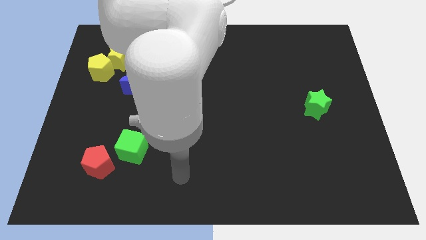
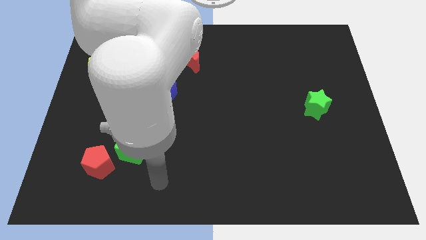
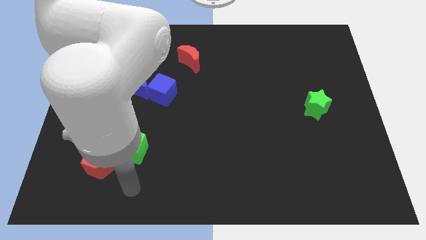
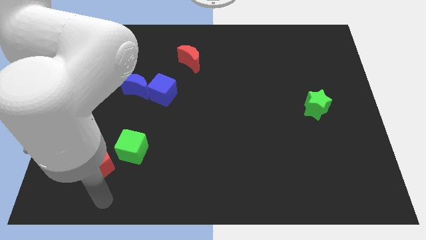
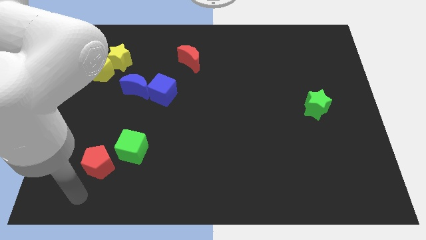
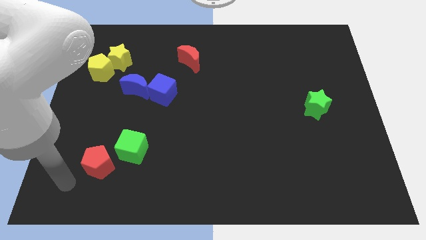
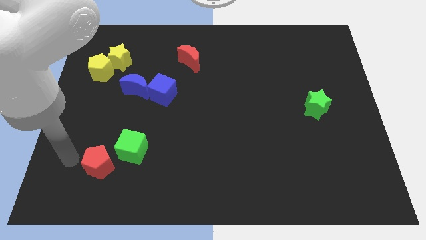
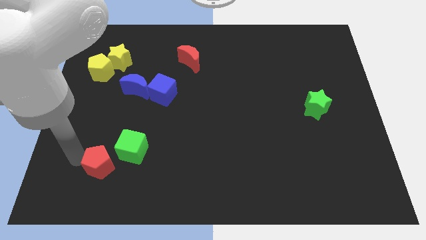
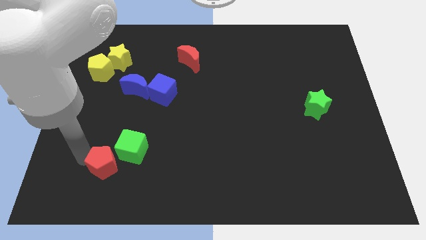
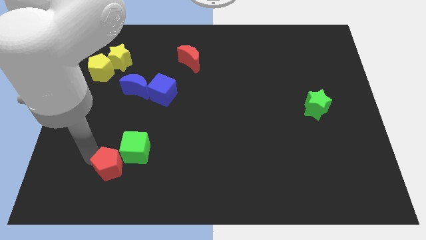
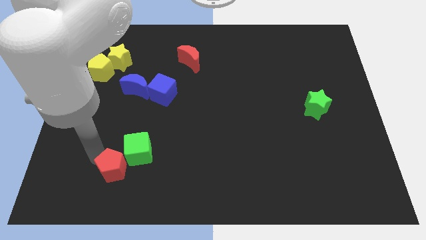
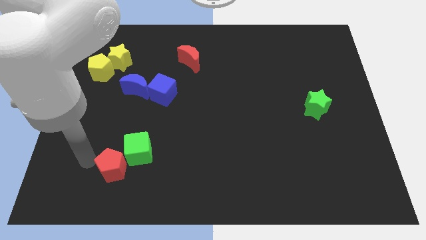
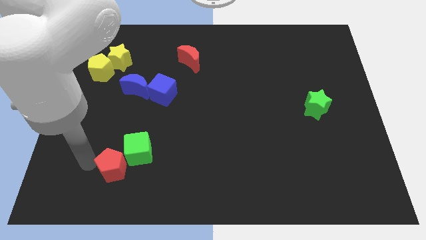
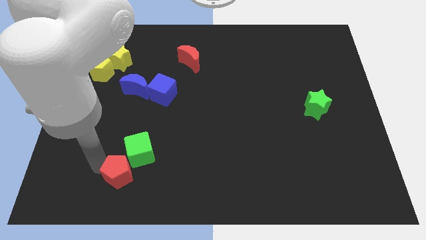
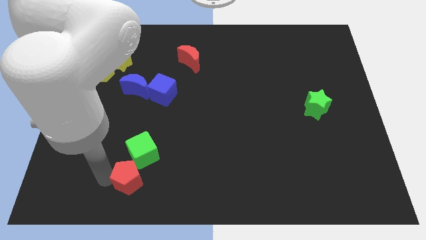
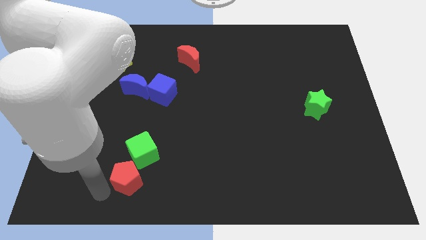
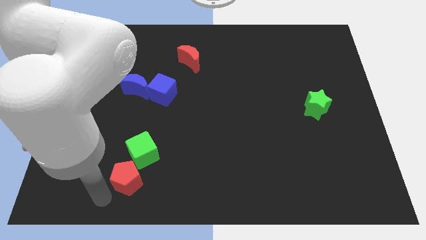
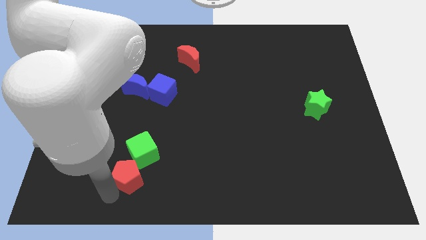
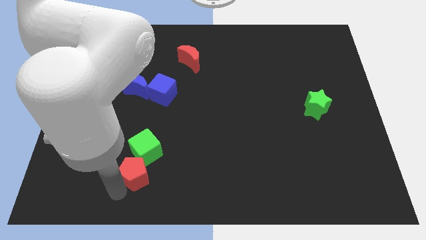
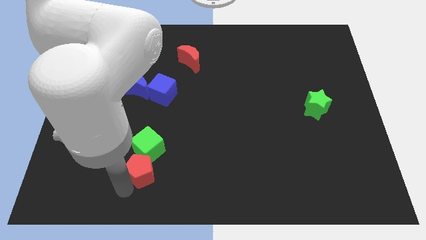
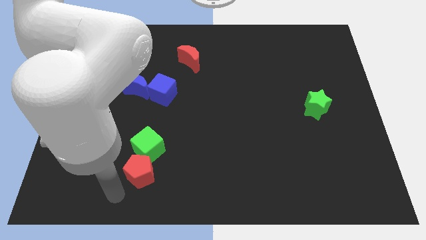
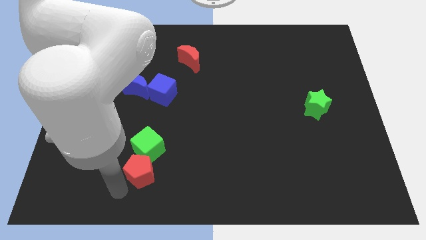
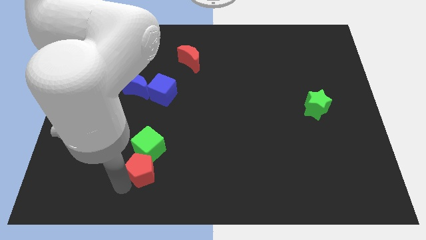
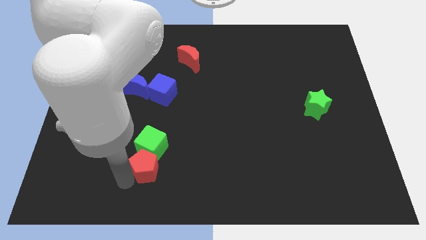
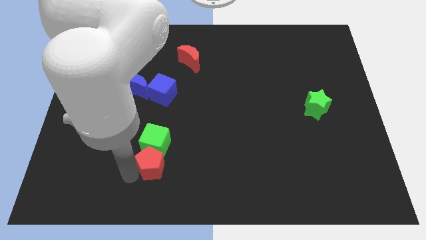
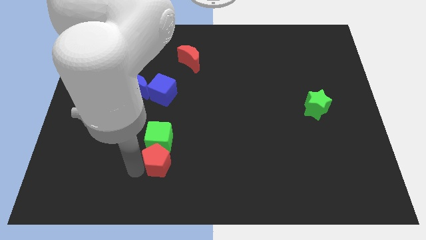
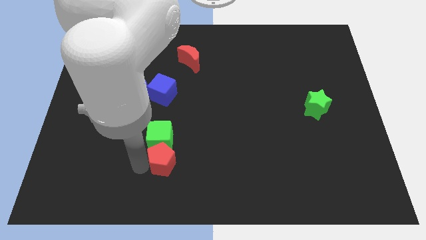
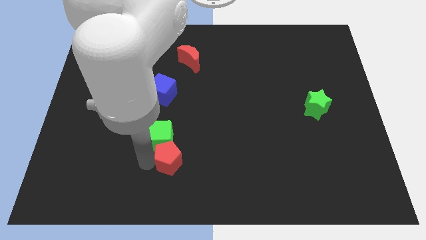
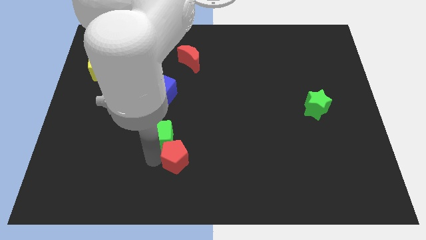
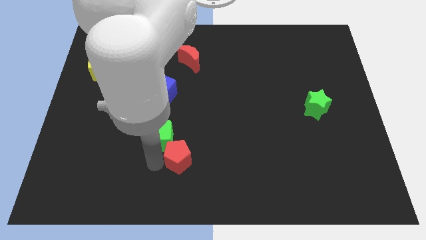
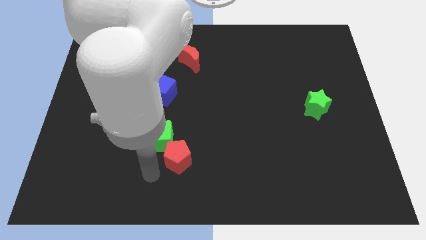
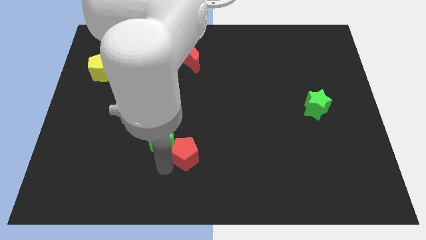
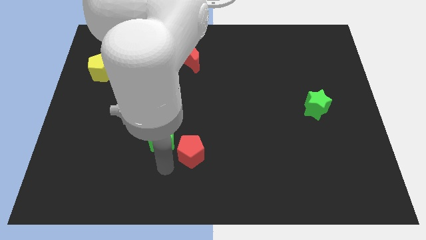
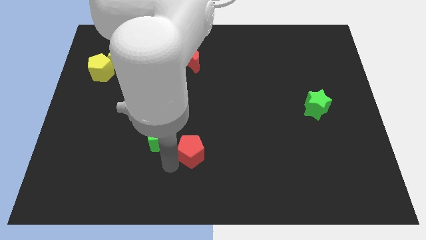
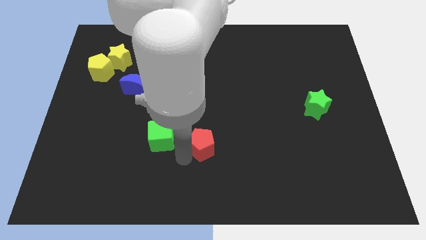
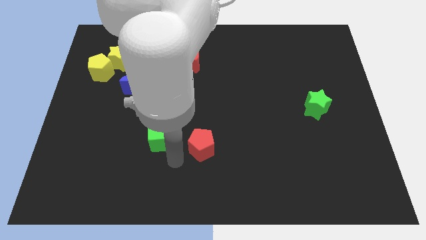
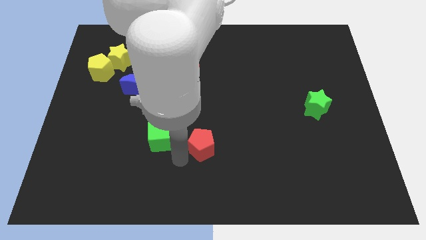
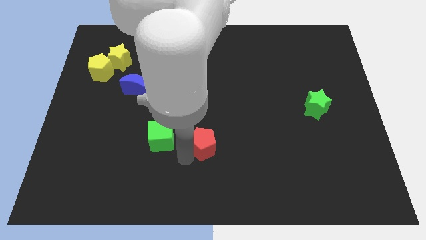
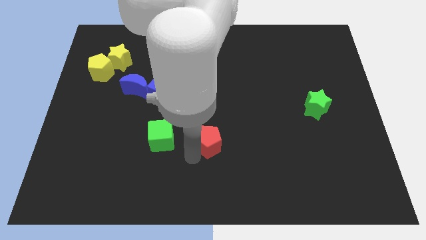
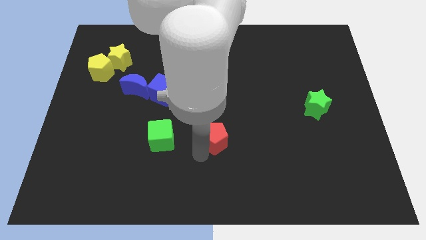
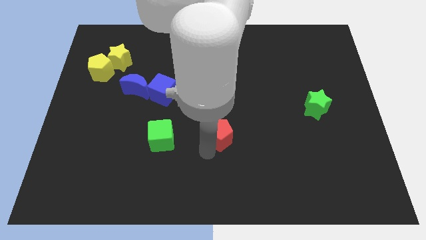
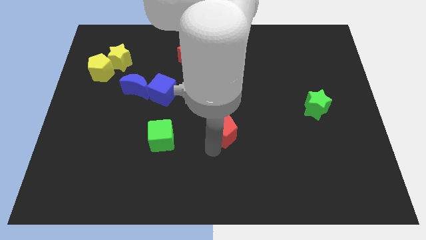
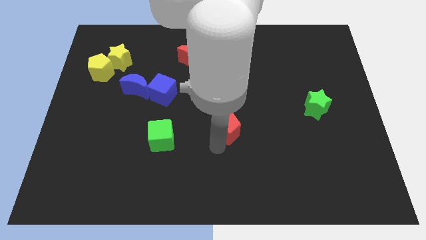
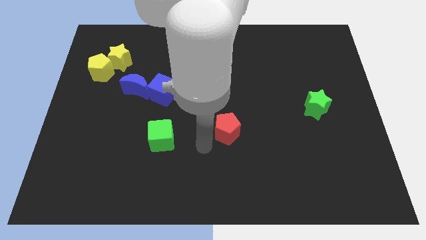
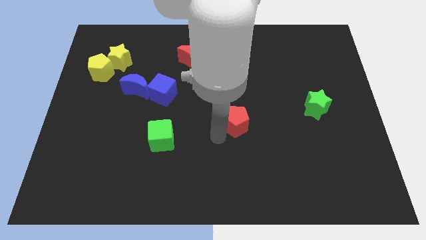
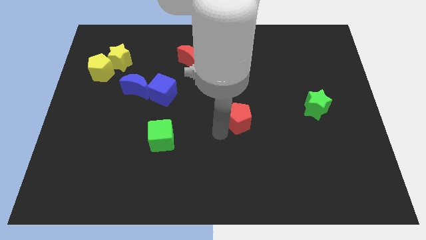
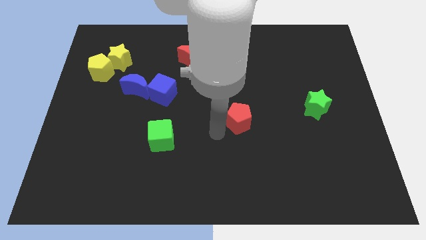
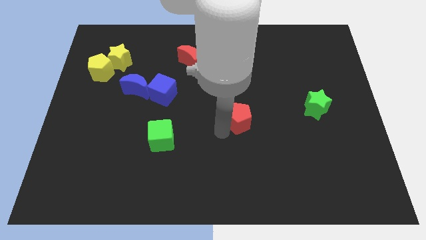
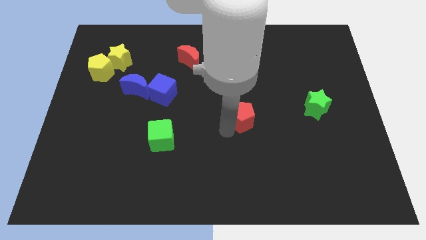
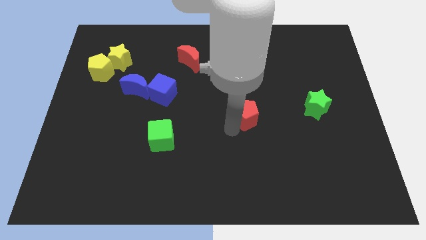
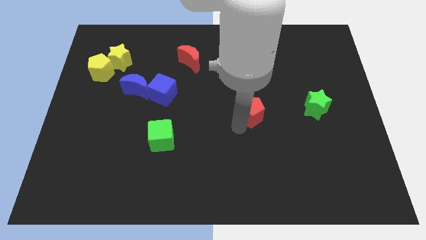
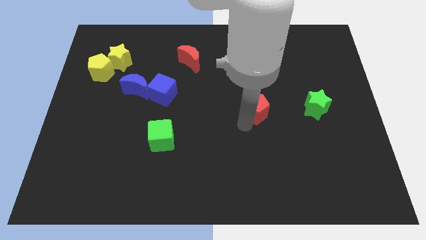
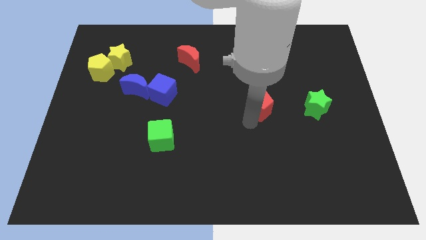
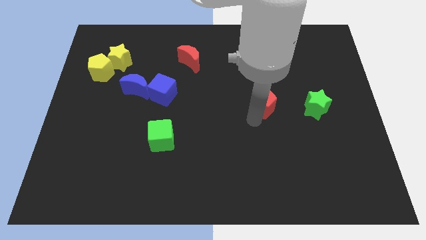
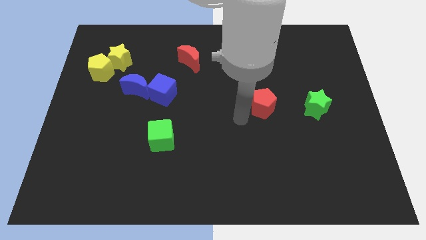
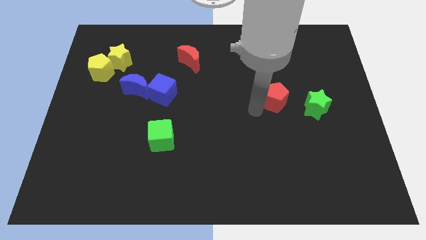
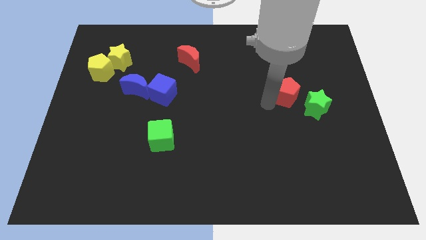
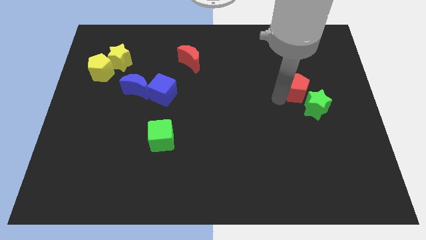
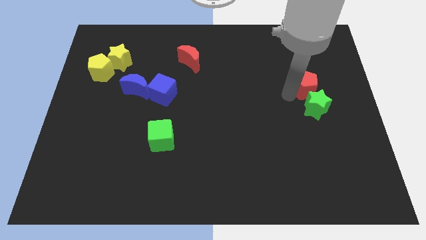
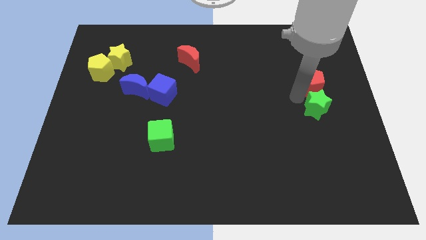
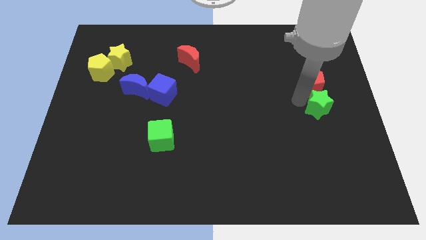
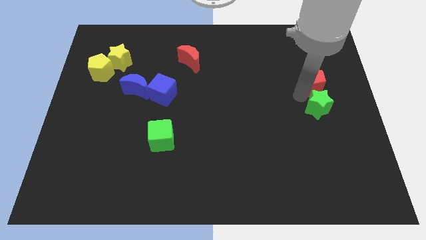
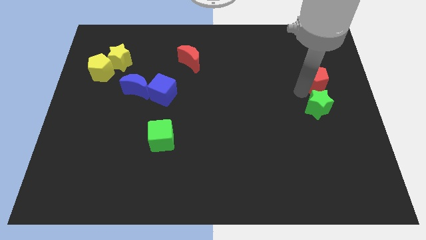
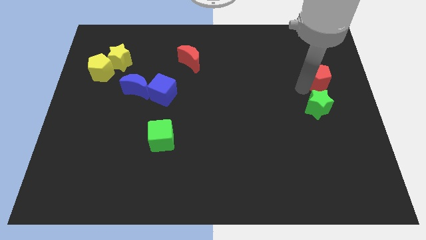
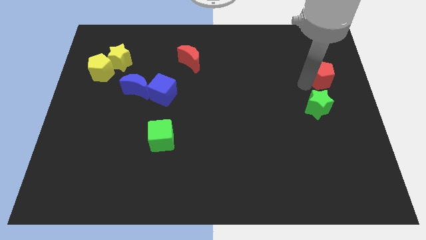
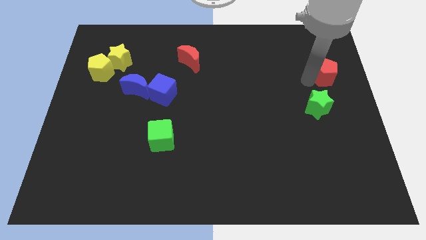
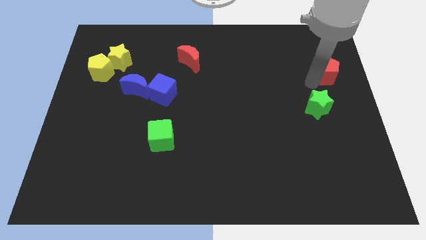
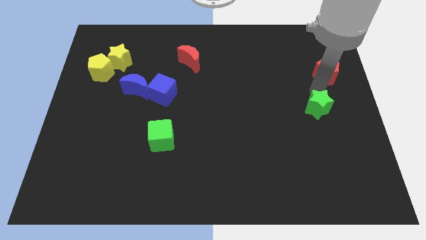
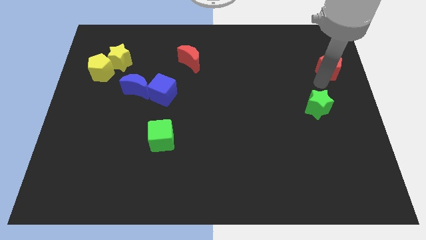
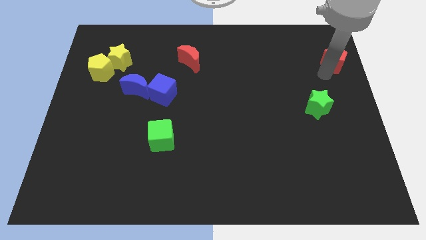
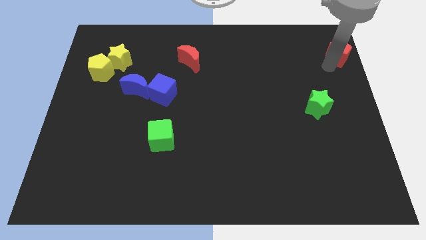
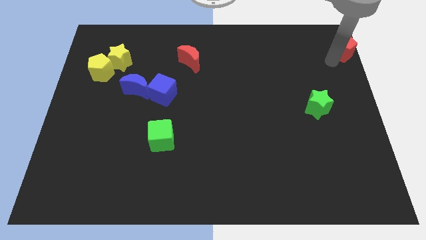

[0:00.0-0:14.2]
move the red pentagon to the top right of the board
